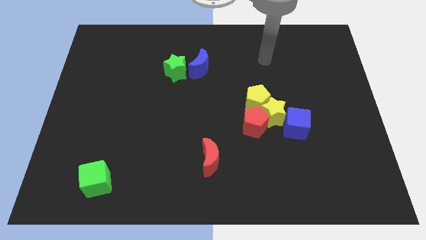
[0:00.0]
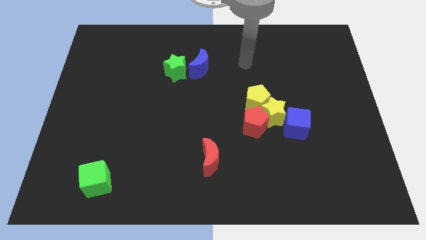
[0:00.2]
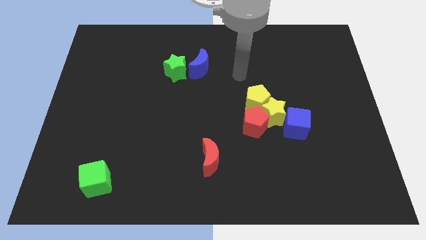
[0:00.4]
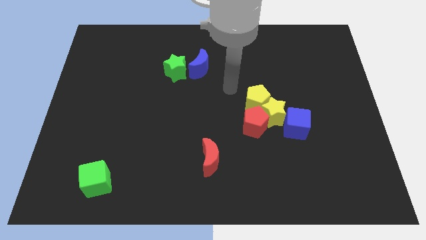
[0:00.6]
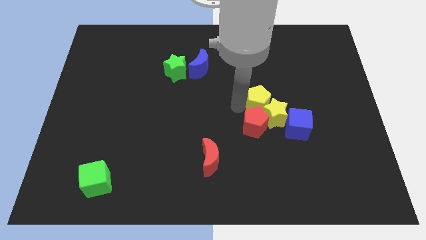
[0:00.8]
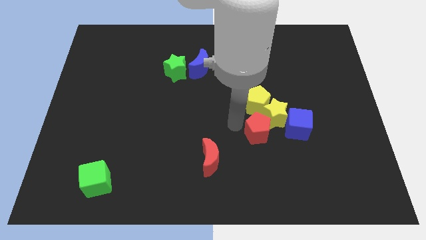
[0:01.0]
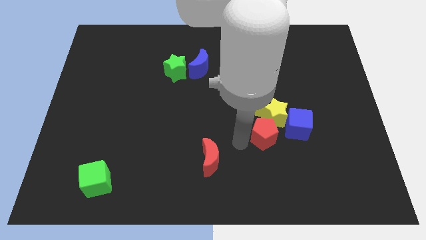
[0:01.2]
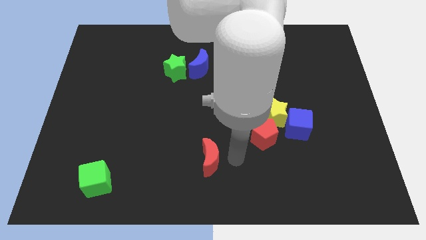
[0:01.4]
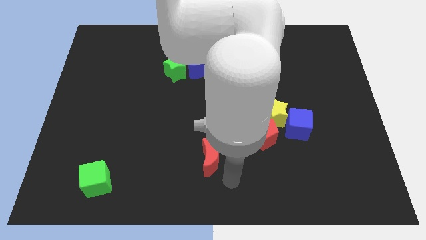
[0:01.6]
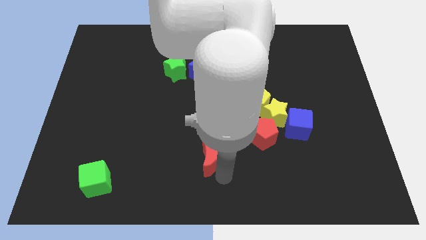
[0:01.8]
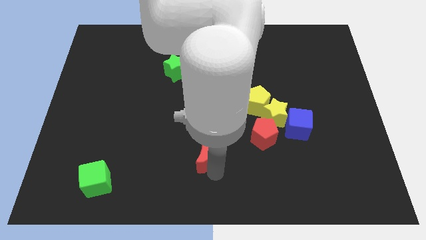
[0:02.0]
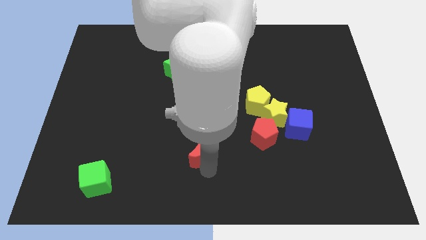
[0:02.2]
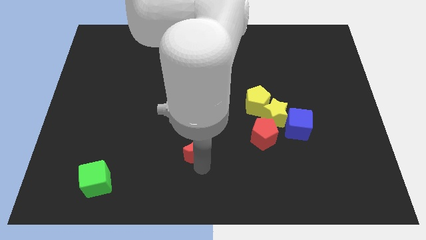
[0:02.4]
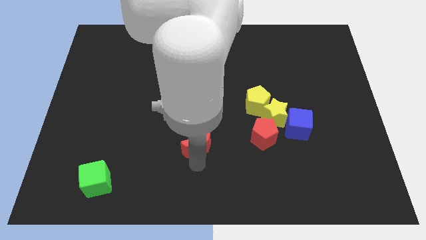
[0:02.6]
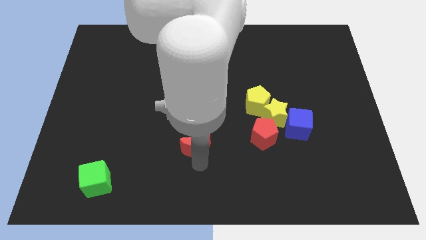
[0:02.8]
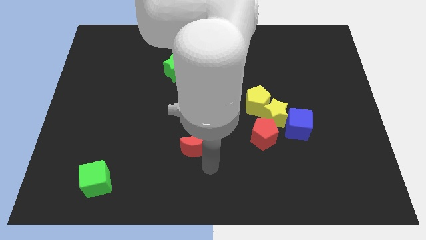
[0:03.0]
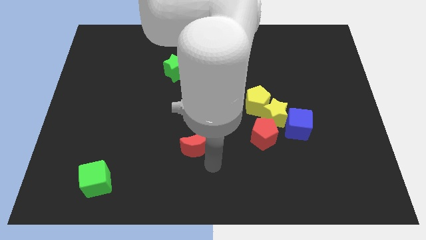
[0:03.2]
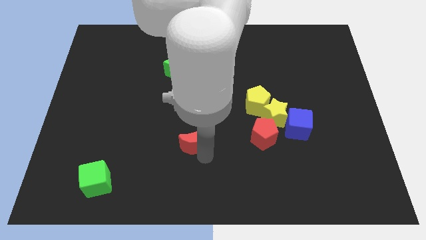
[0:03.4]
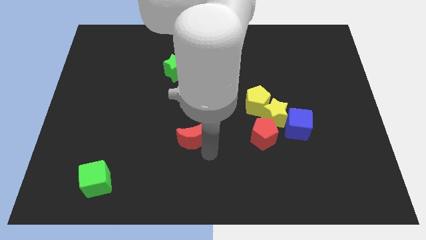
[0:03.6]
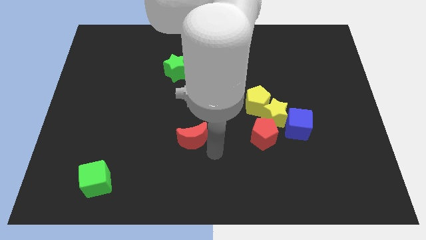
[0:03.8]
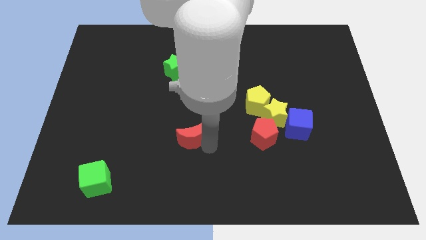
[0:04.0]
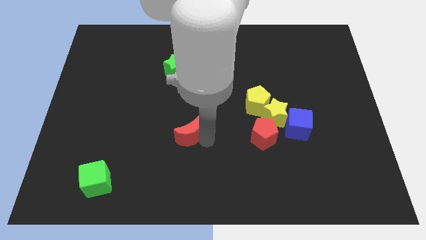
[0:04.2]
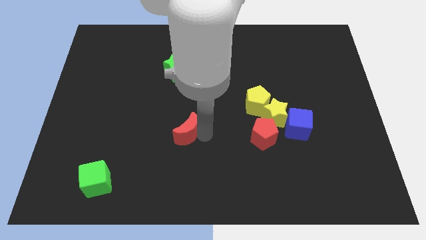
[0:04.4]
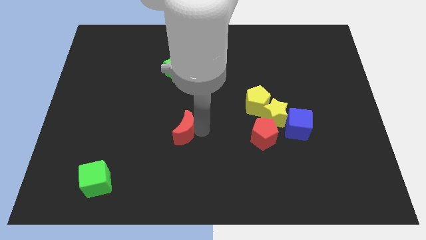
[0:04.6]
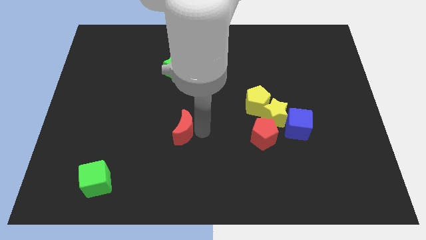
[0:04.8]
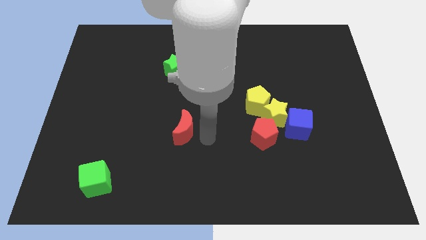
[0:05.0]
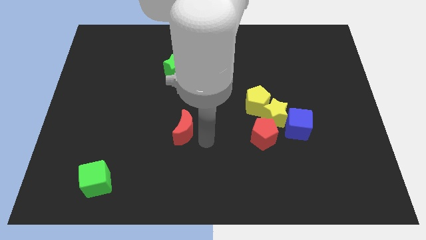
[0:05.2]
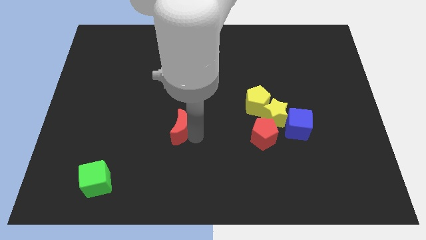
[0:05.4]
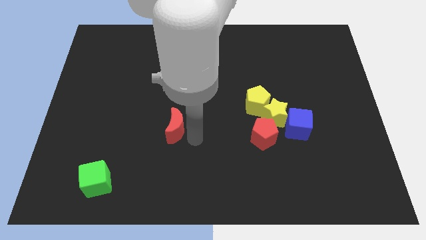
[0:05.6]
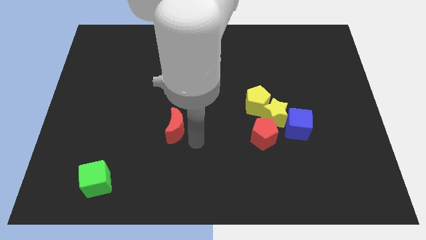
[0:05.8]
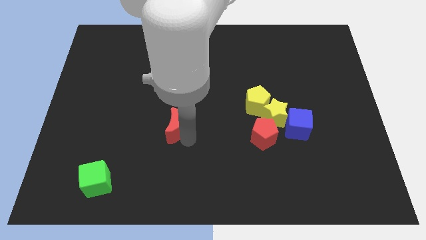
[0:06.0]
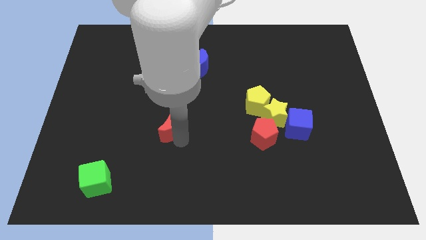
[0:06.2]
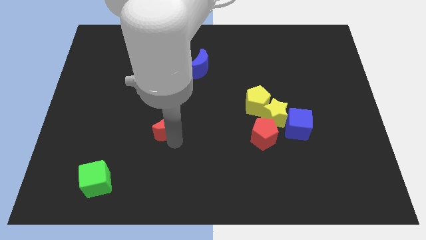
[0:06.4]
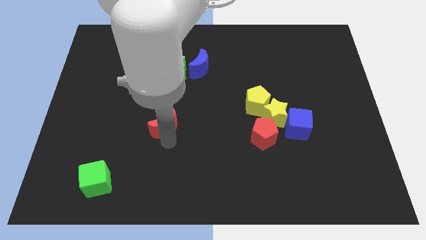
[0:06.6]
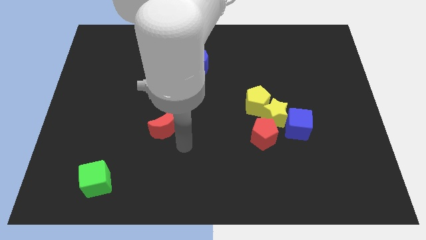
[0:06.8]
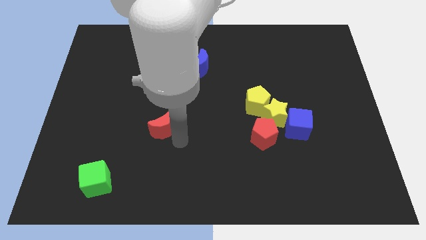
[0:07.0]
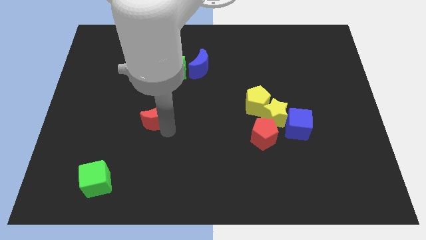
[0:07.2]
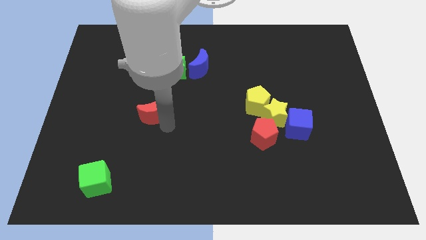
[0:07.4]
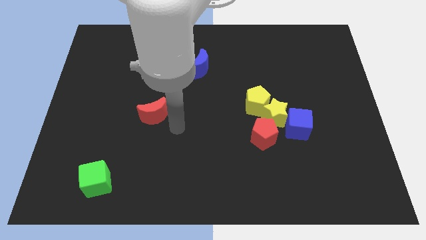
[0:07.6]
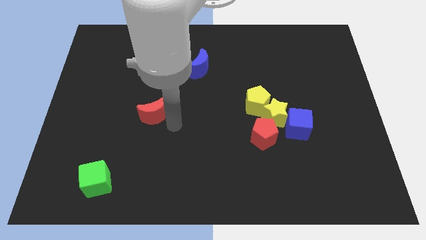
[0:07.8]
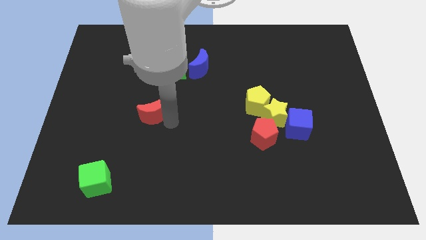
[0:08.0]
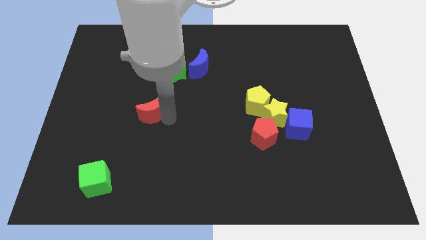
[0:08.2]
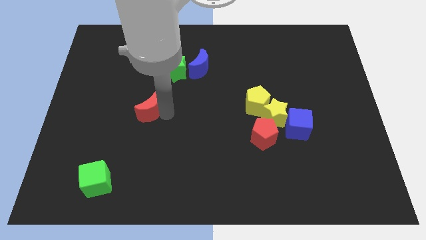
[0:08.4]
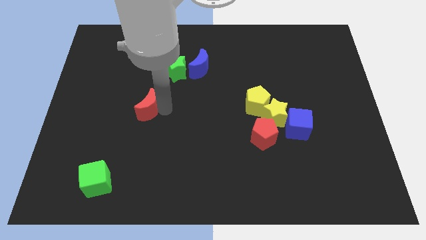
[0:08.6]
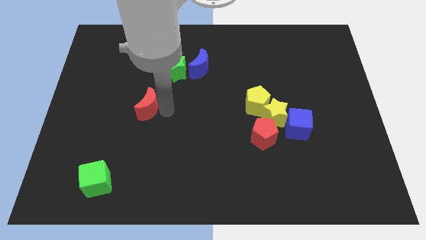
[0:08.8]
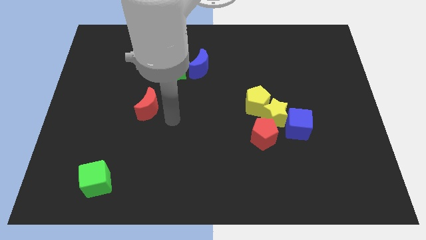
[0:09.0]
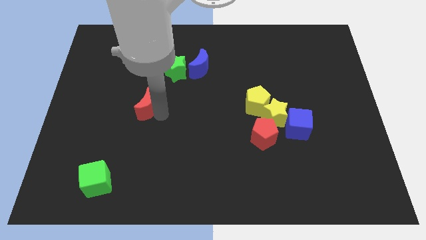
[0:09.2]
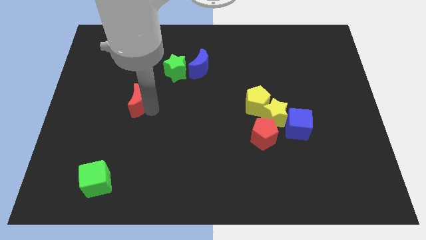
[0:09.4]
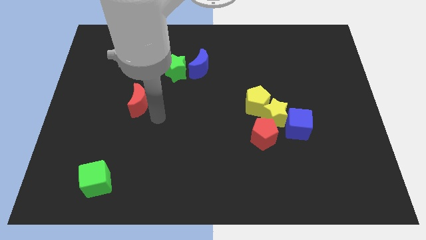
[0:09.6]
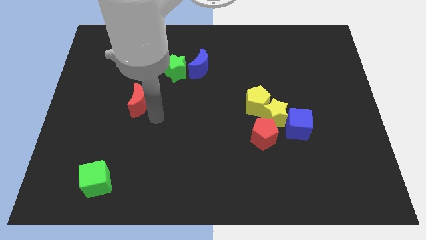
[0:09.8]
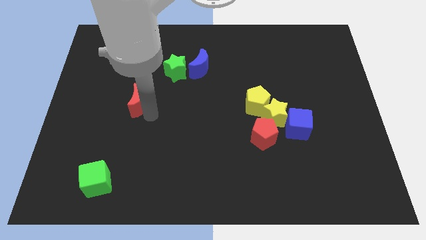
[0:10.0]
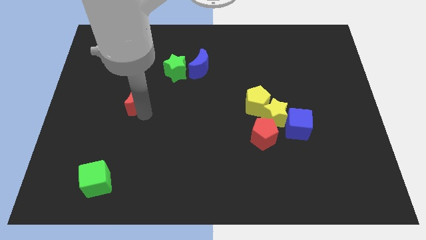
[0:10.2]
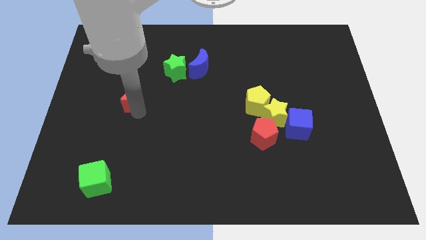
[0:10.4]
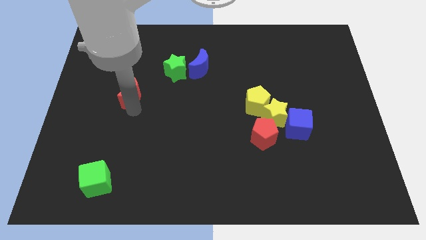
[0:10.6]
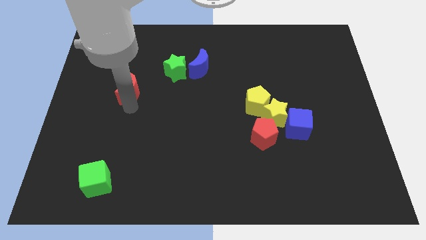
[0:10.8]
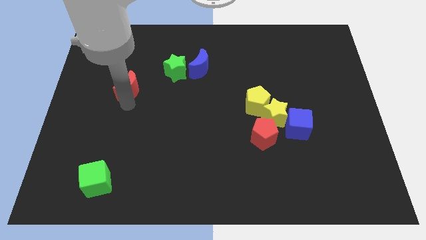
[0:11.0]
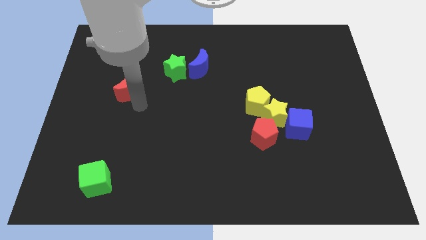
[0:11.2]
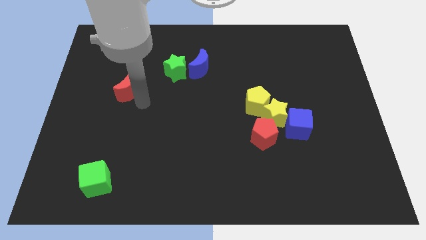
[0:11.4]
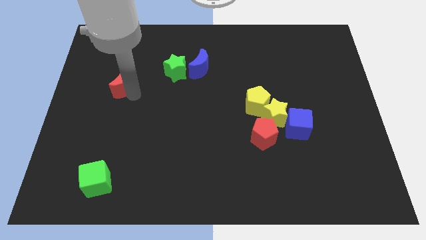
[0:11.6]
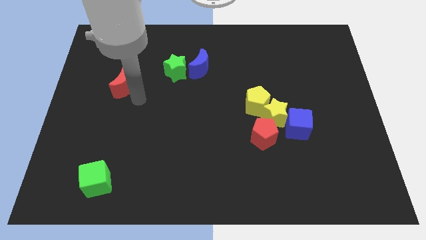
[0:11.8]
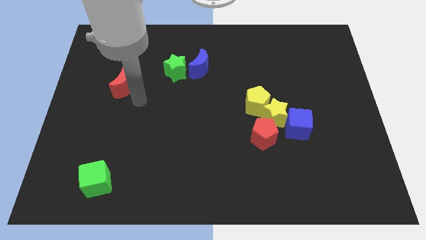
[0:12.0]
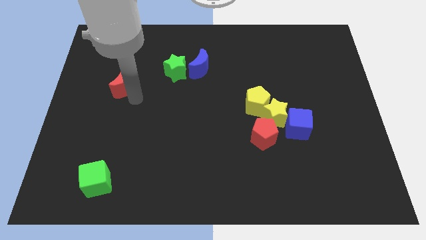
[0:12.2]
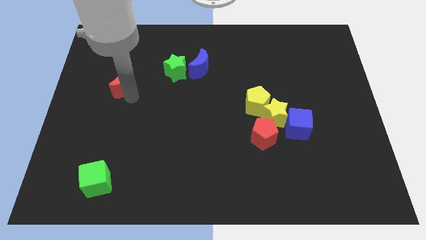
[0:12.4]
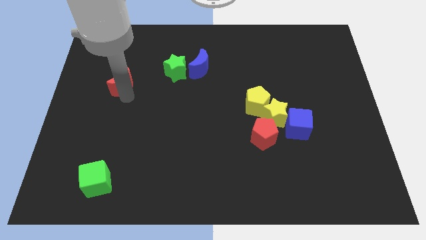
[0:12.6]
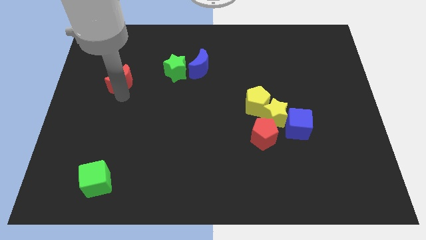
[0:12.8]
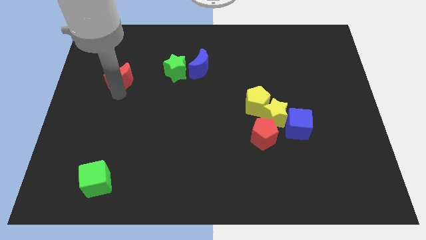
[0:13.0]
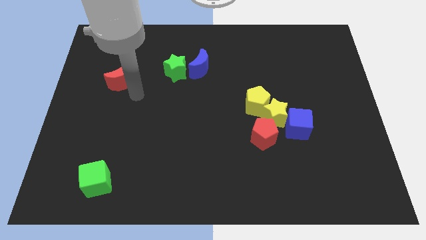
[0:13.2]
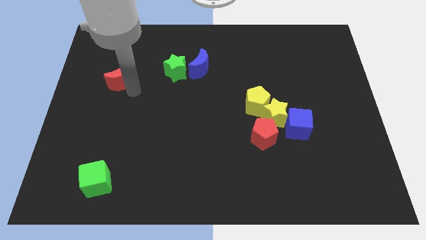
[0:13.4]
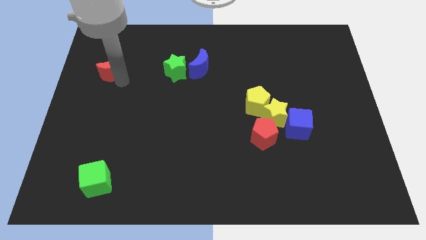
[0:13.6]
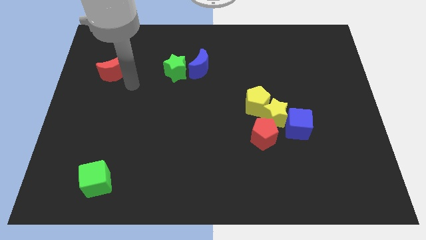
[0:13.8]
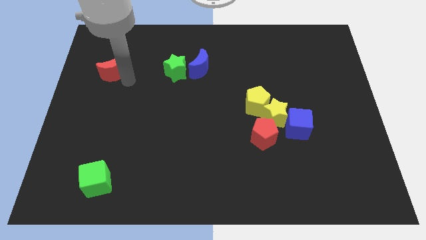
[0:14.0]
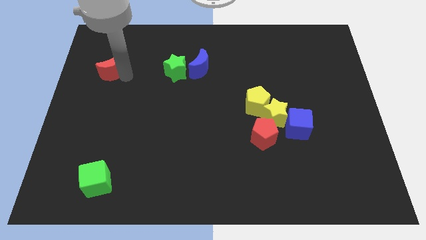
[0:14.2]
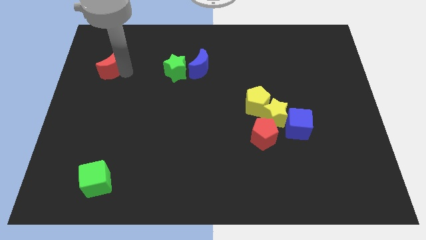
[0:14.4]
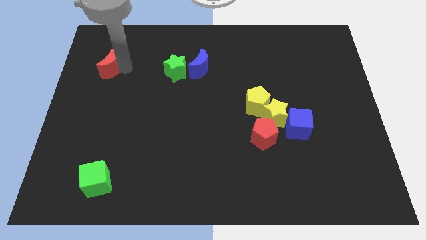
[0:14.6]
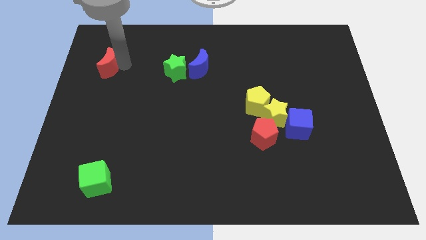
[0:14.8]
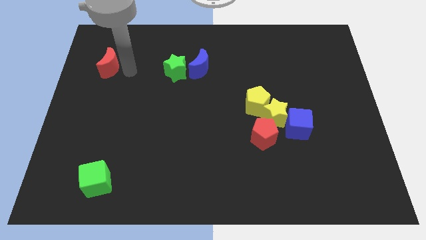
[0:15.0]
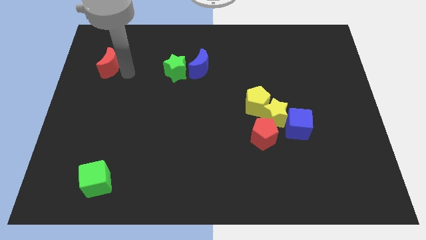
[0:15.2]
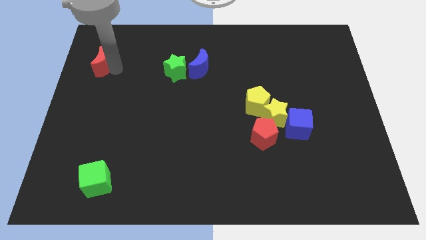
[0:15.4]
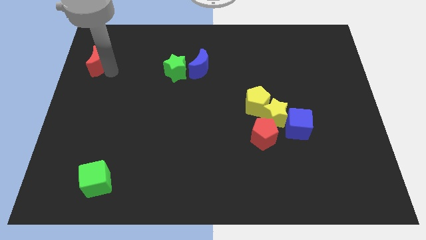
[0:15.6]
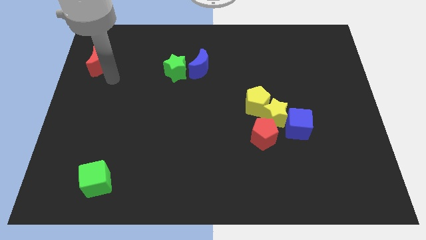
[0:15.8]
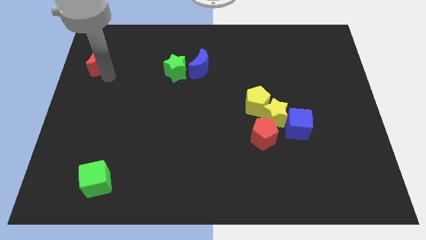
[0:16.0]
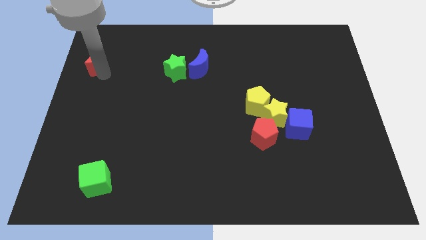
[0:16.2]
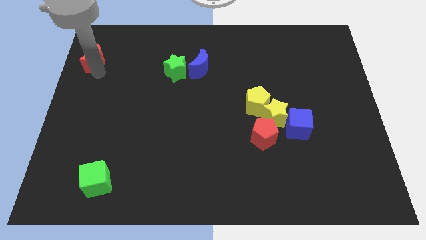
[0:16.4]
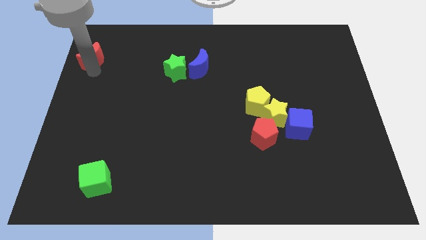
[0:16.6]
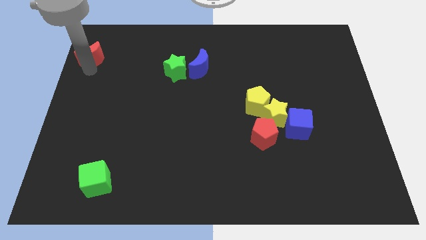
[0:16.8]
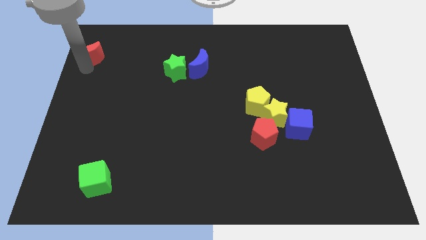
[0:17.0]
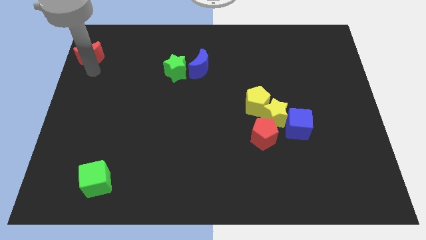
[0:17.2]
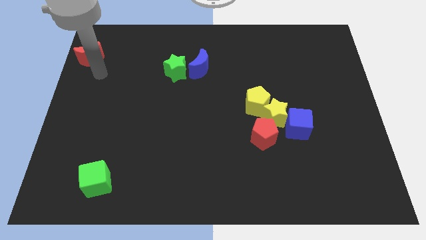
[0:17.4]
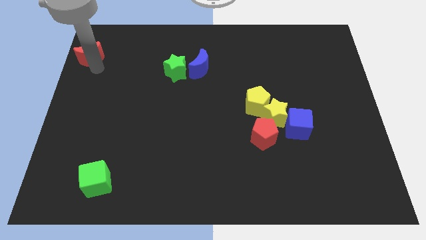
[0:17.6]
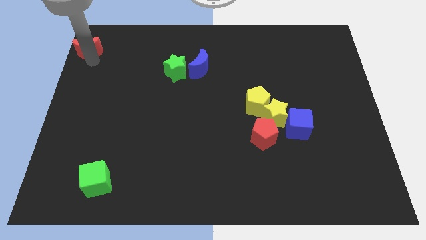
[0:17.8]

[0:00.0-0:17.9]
put the red moon to the upper left corner
